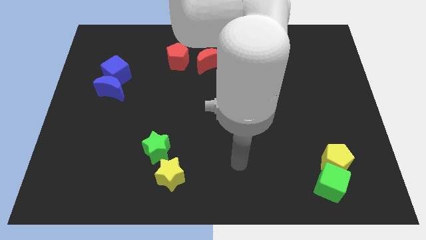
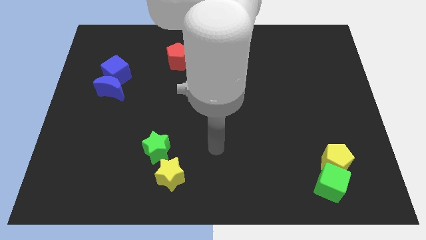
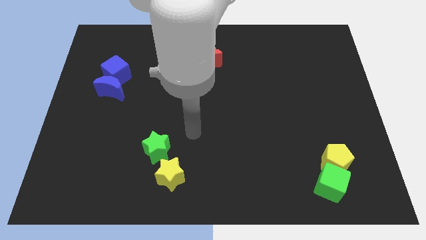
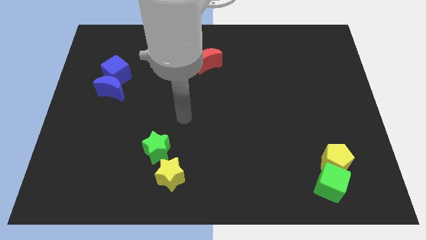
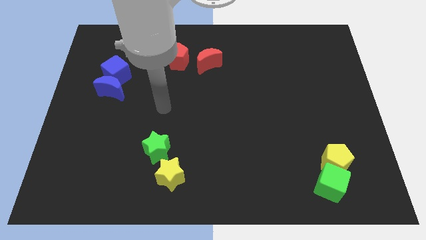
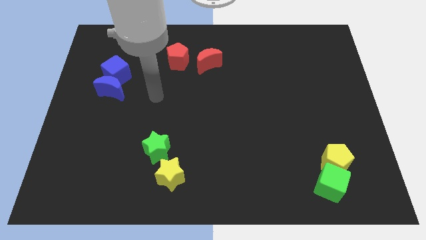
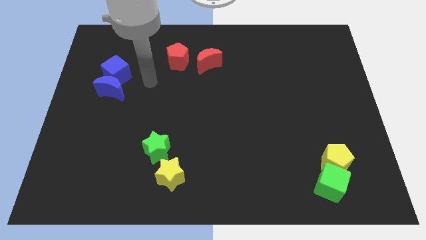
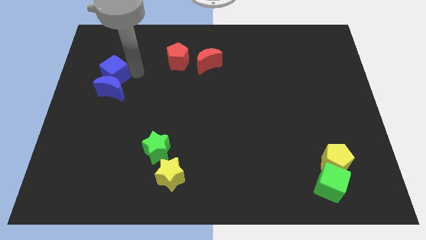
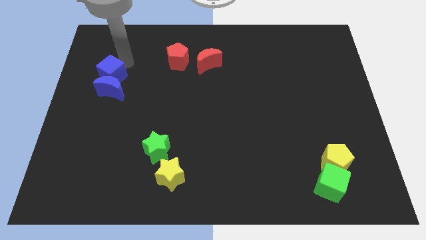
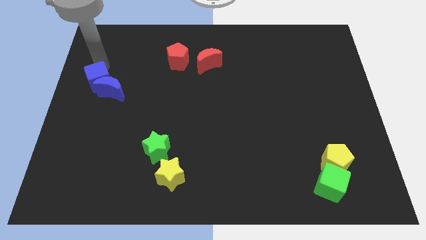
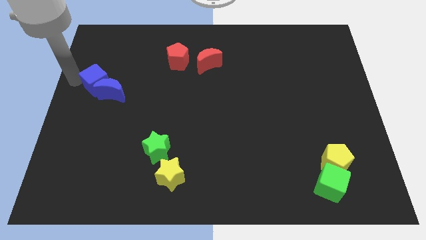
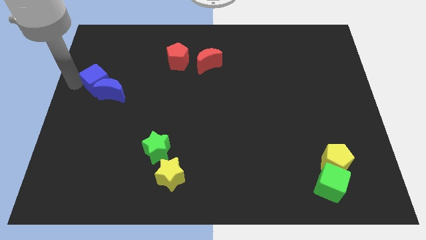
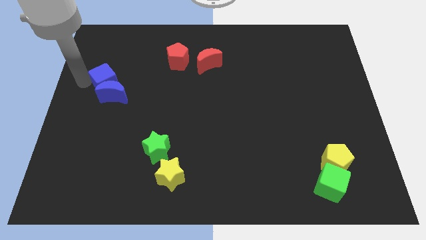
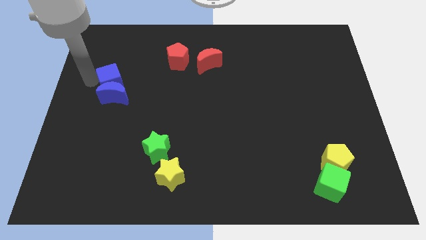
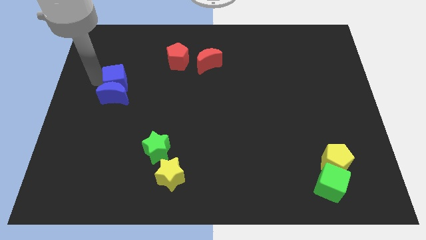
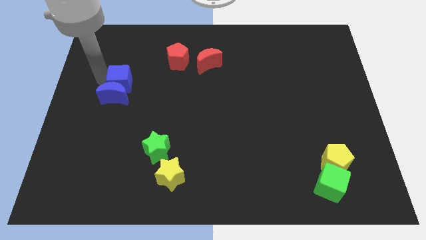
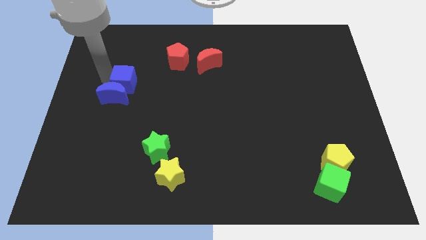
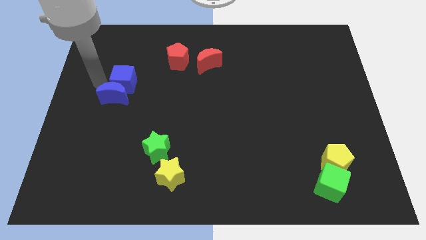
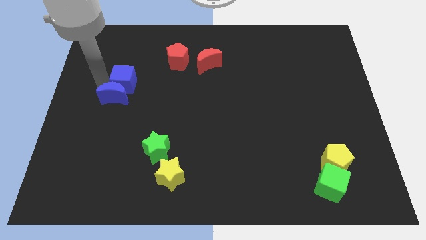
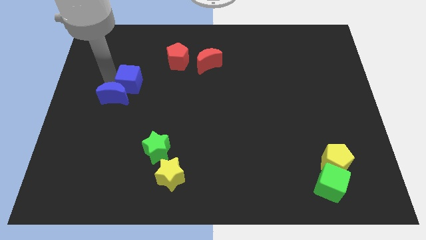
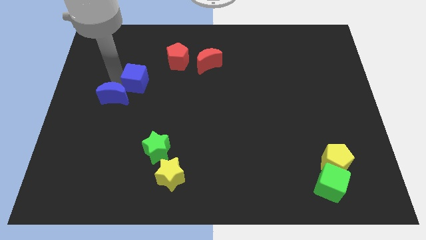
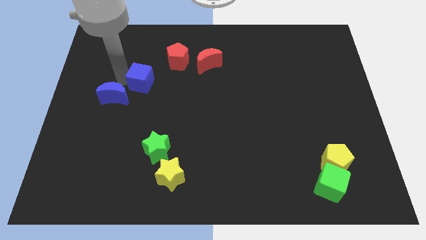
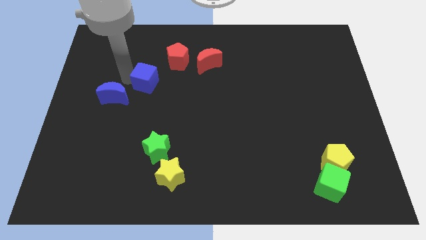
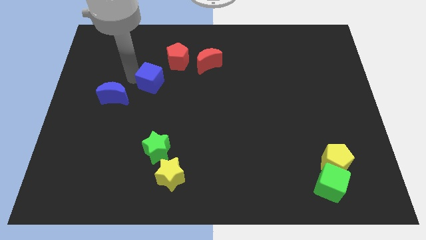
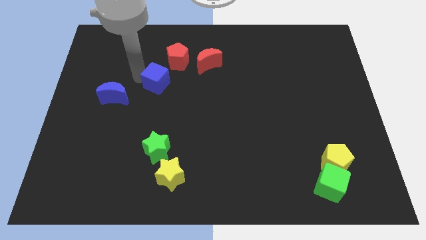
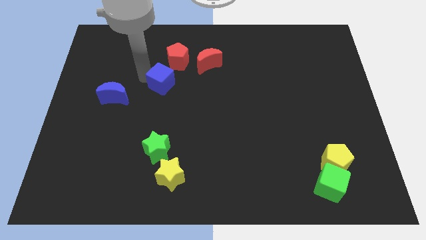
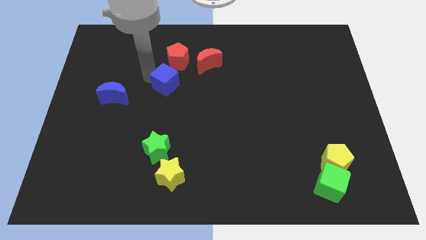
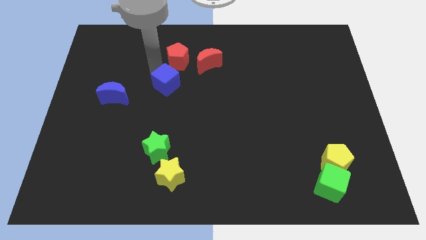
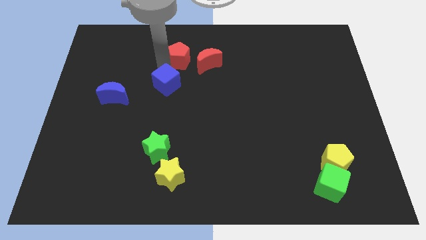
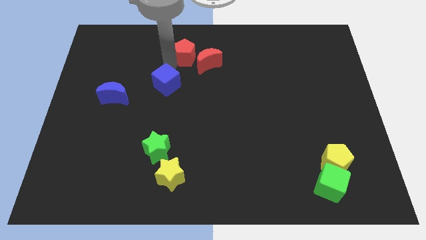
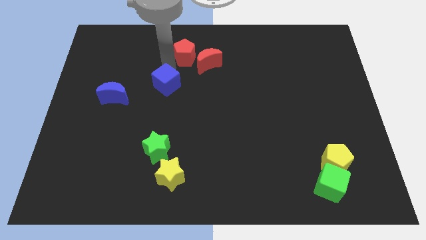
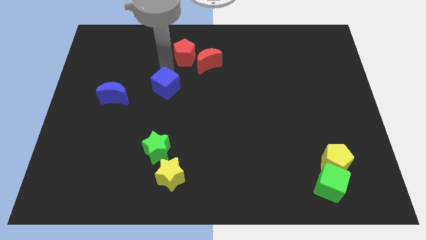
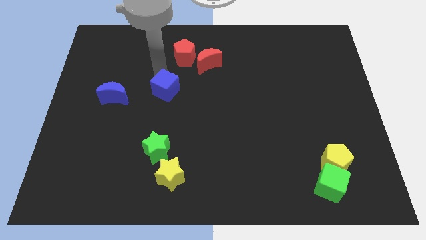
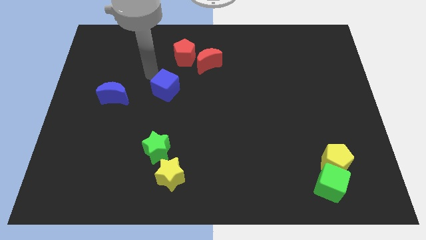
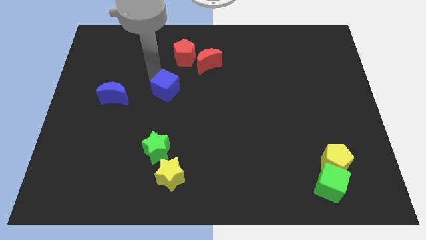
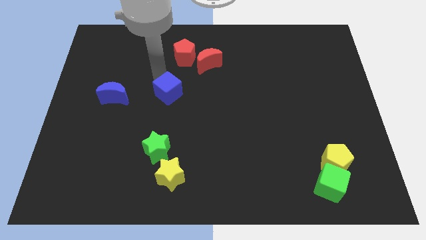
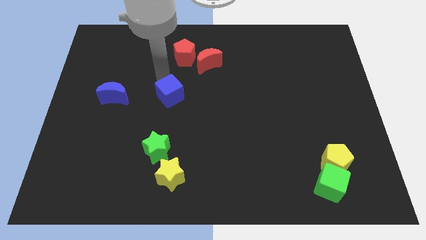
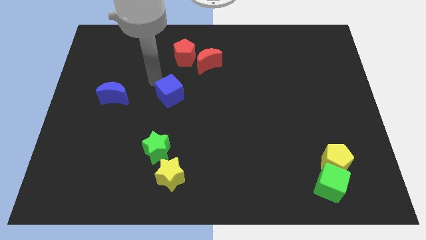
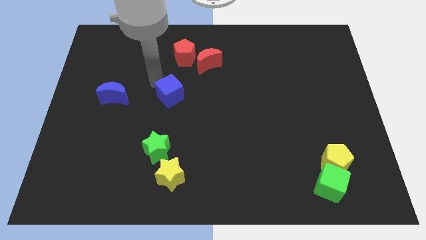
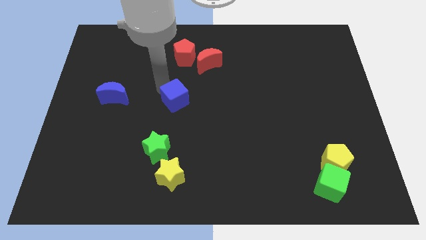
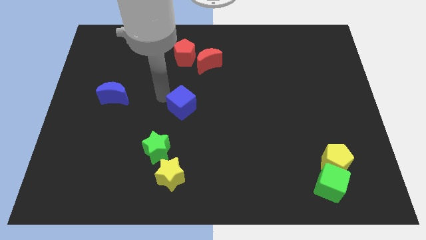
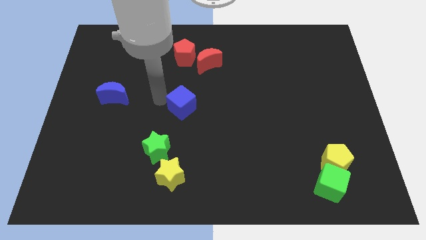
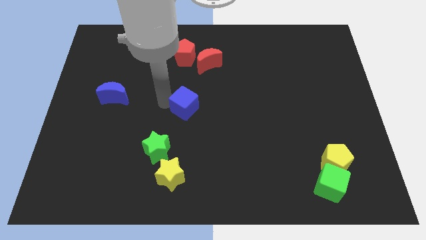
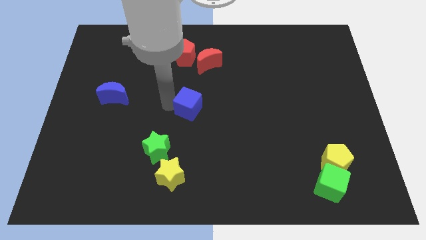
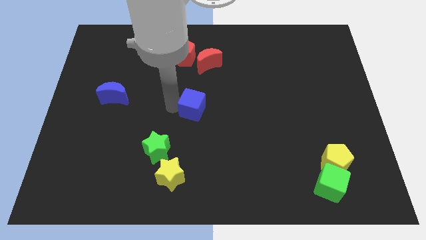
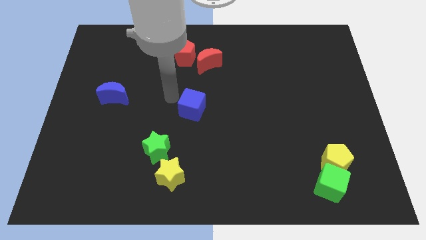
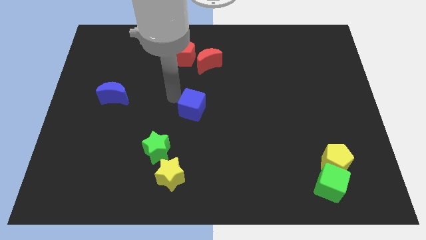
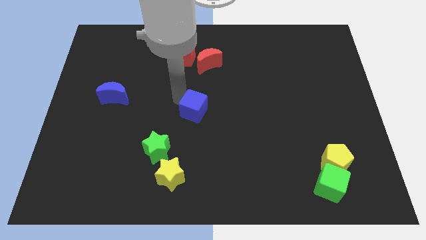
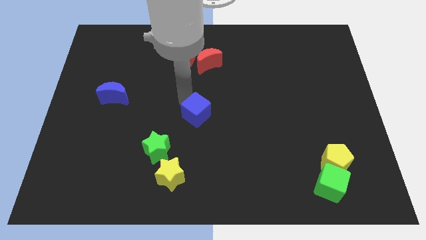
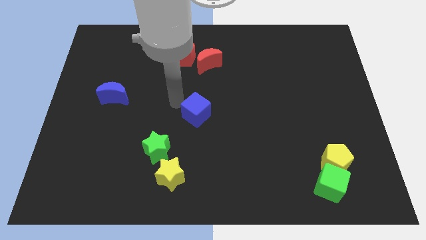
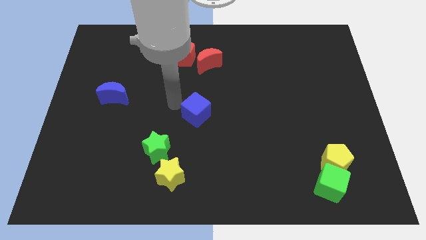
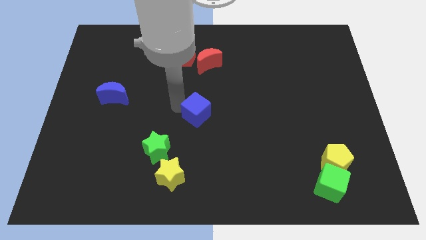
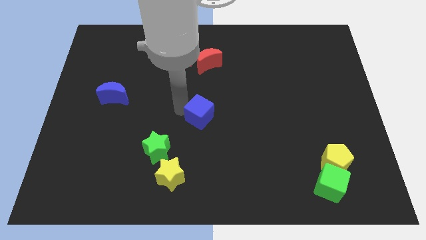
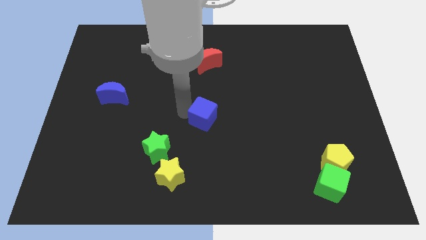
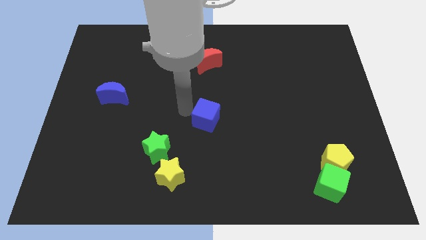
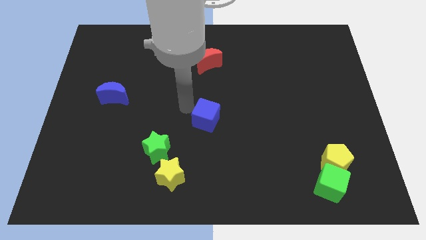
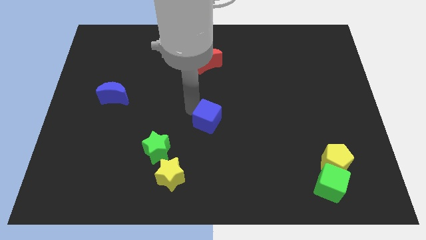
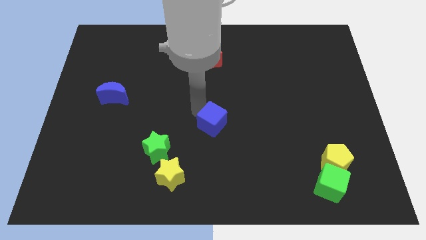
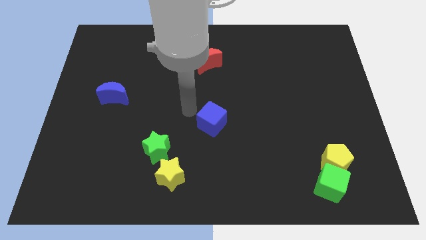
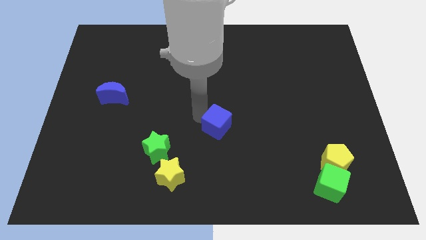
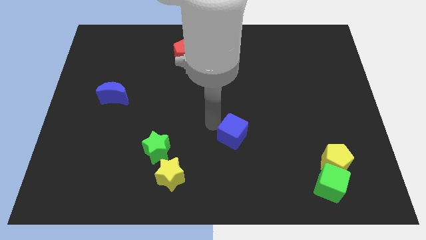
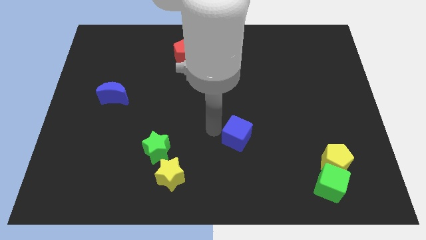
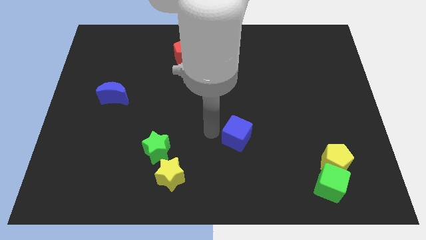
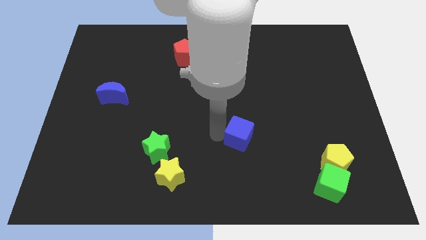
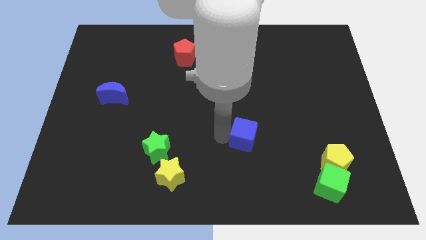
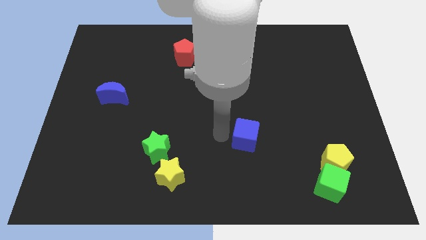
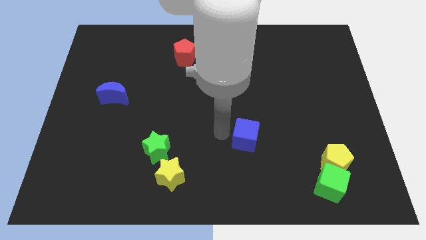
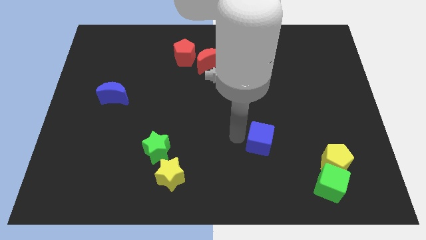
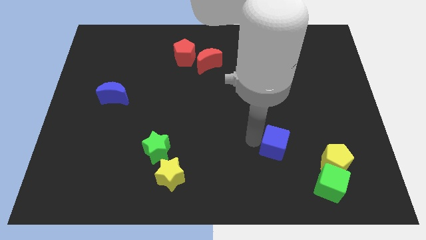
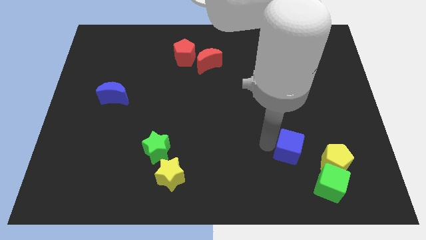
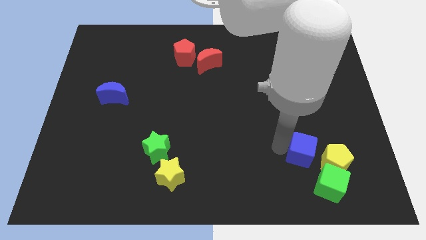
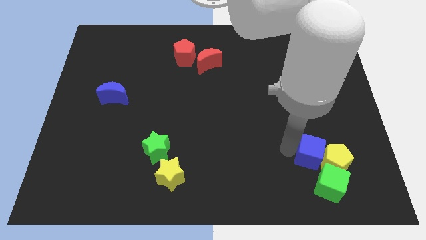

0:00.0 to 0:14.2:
slide the blue cube close to the yellow pentagon
